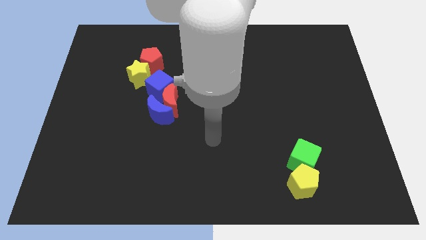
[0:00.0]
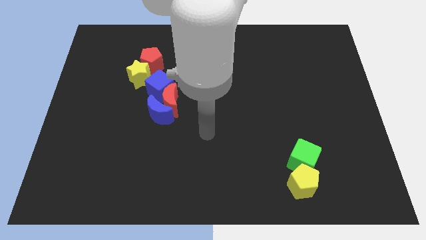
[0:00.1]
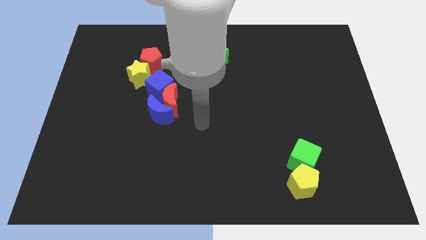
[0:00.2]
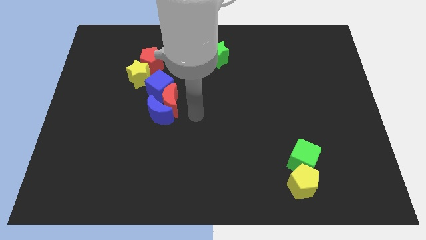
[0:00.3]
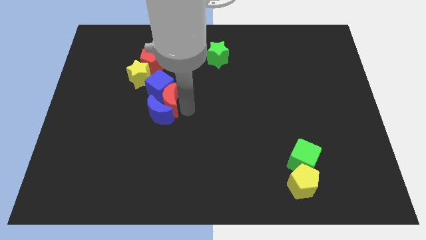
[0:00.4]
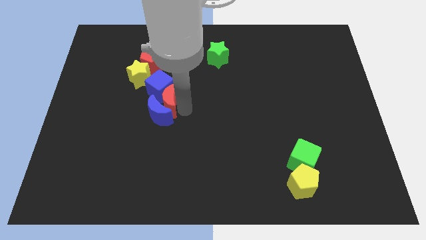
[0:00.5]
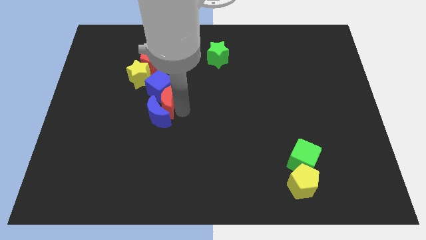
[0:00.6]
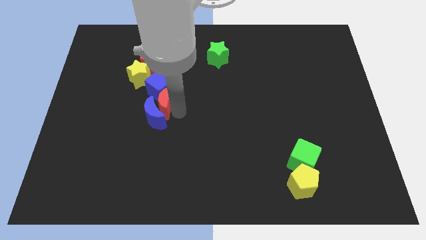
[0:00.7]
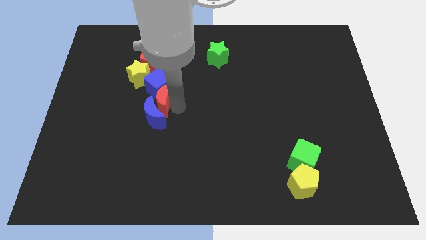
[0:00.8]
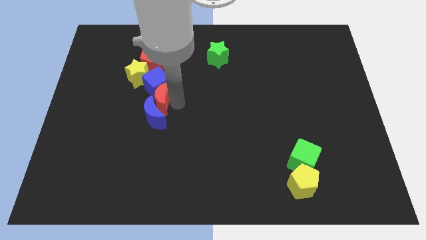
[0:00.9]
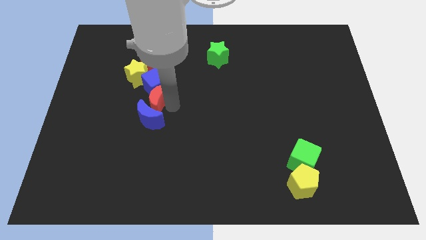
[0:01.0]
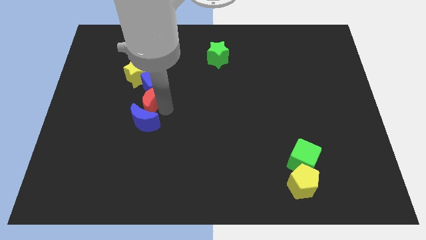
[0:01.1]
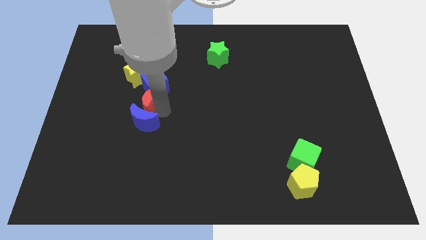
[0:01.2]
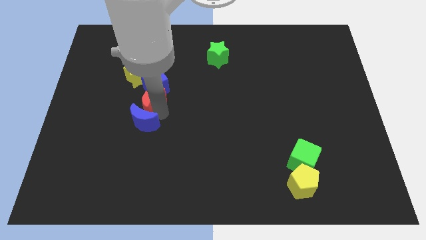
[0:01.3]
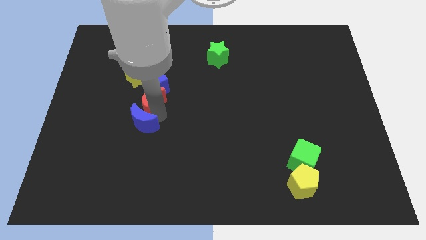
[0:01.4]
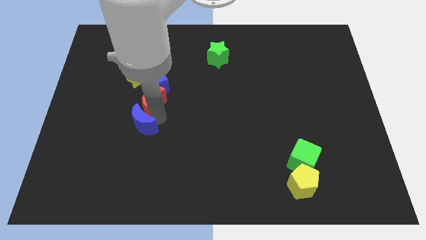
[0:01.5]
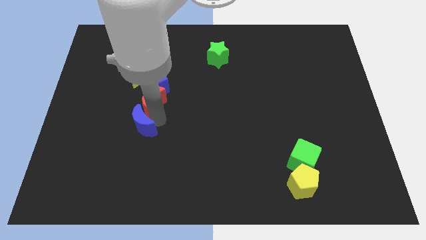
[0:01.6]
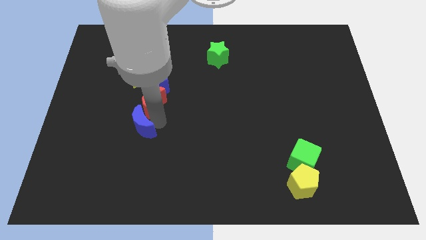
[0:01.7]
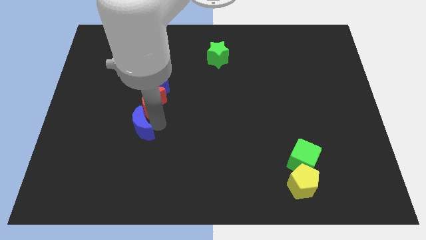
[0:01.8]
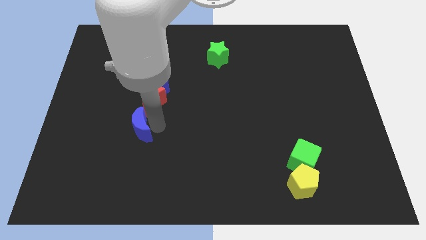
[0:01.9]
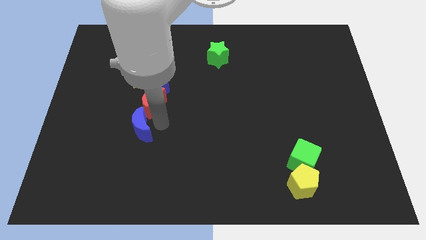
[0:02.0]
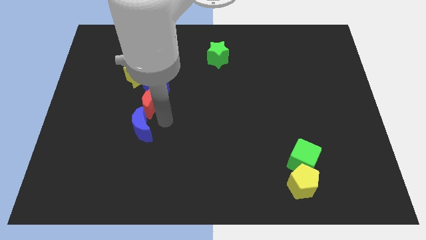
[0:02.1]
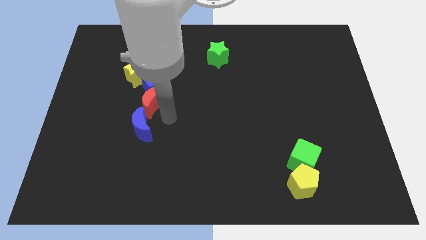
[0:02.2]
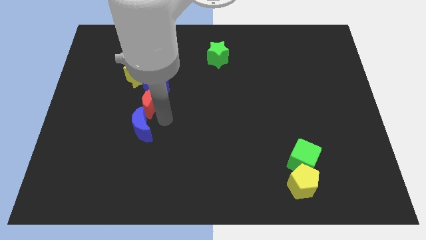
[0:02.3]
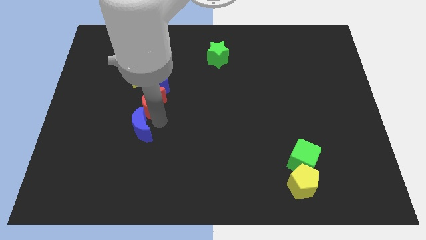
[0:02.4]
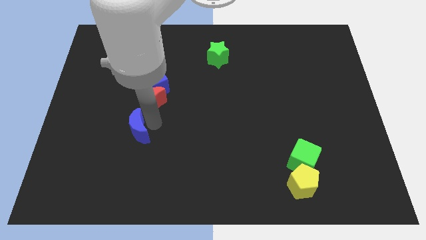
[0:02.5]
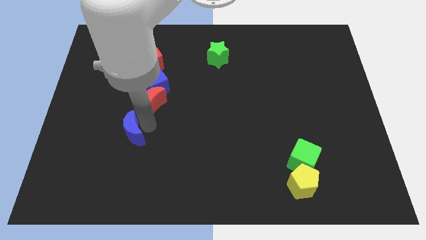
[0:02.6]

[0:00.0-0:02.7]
slide the blue moon downwards and then left slightly

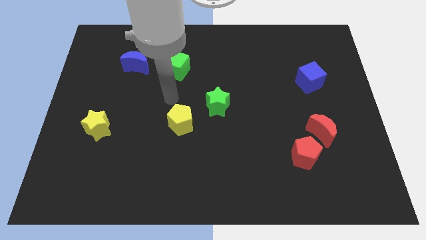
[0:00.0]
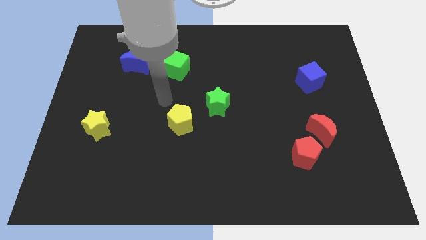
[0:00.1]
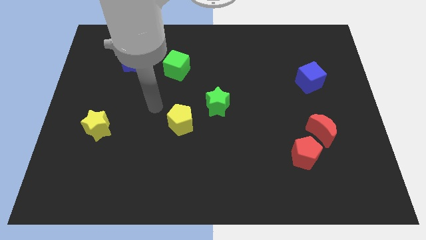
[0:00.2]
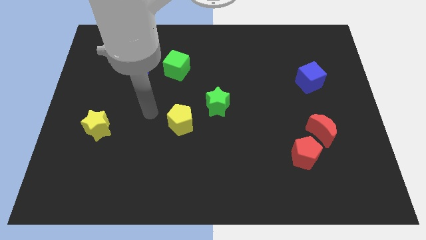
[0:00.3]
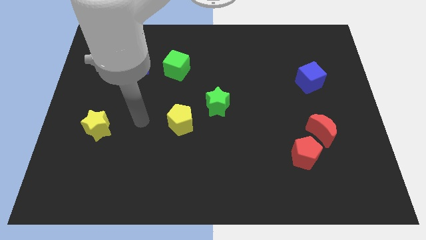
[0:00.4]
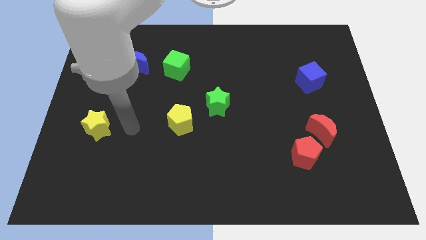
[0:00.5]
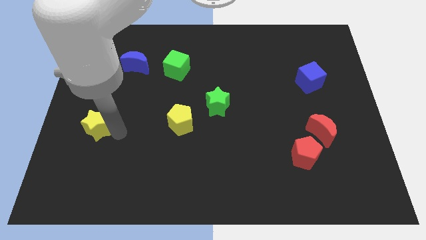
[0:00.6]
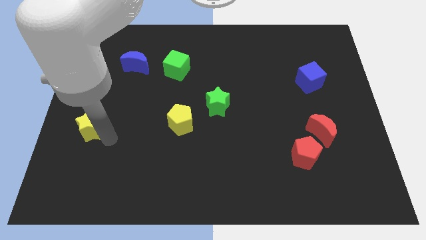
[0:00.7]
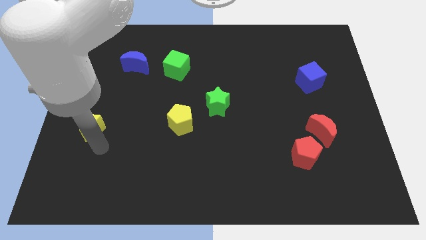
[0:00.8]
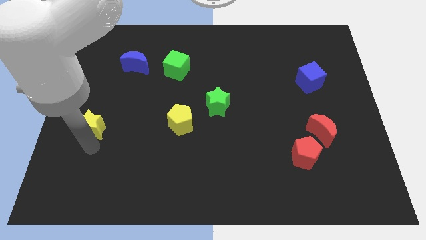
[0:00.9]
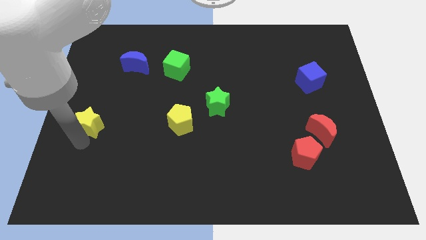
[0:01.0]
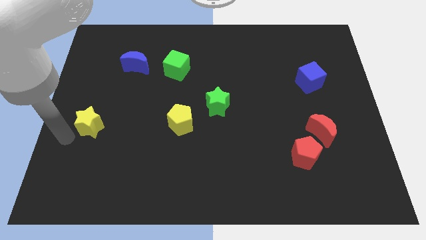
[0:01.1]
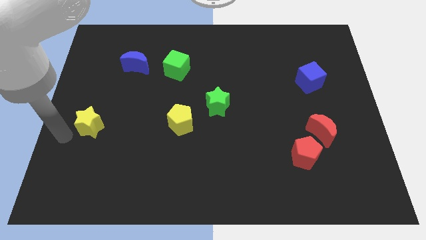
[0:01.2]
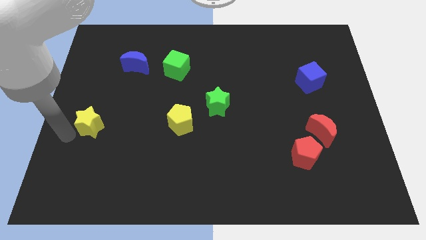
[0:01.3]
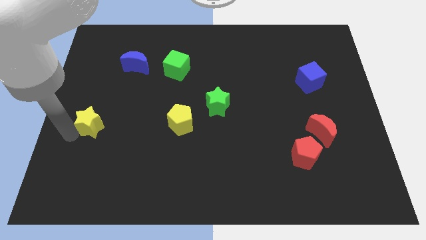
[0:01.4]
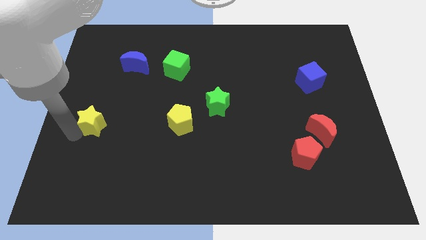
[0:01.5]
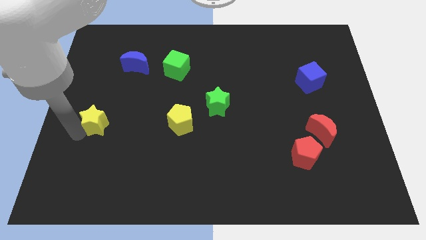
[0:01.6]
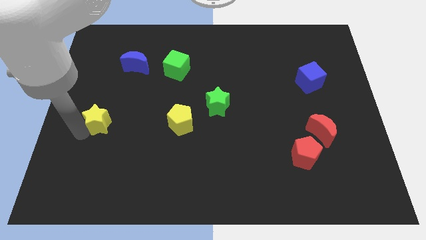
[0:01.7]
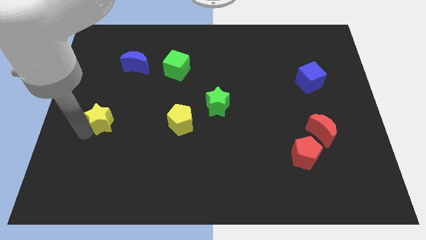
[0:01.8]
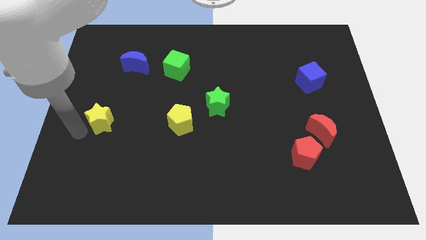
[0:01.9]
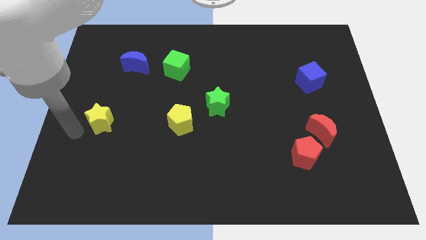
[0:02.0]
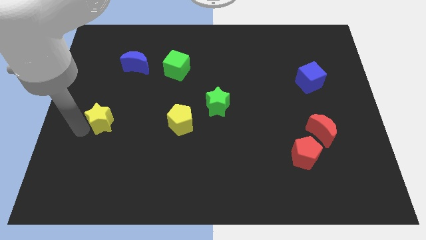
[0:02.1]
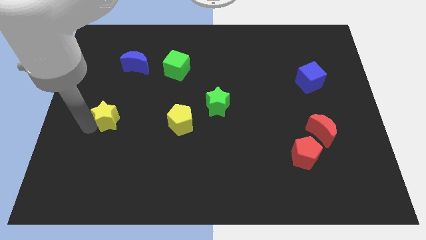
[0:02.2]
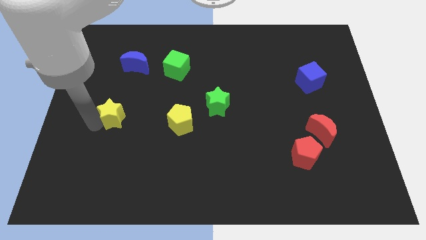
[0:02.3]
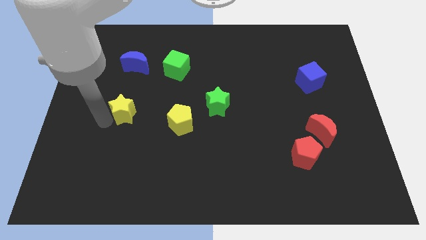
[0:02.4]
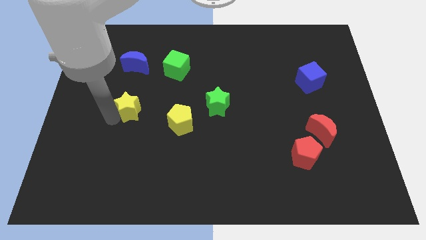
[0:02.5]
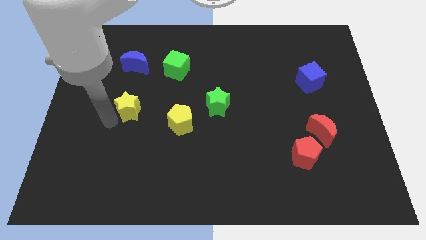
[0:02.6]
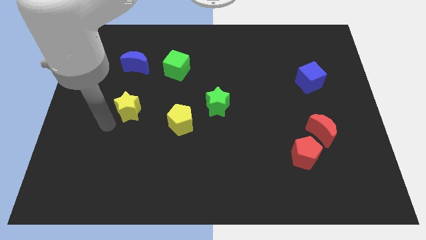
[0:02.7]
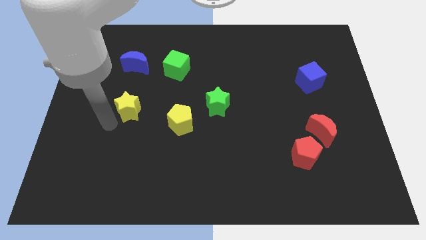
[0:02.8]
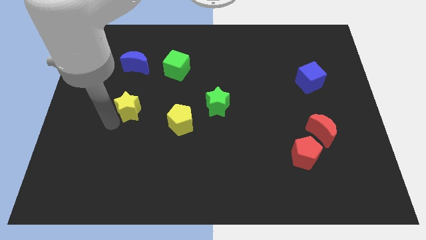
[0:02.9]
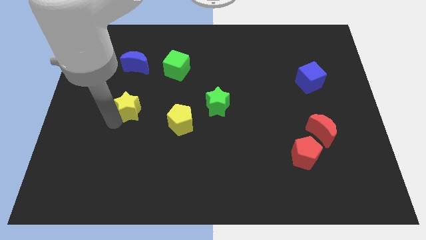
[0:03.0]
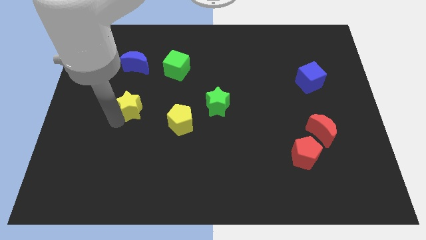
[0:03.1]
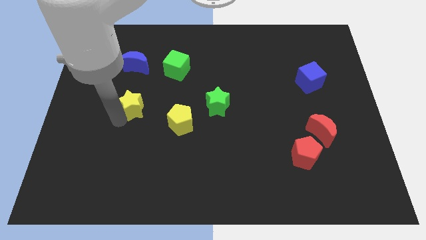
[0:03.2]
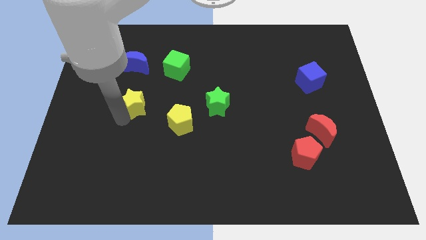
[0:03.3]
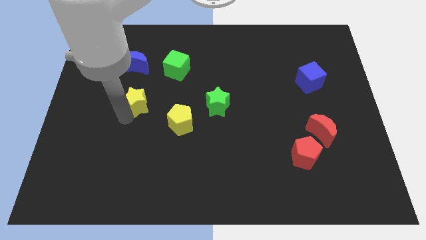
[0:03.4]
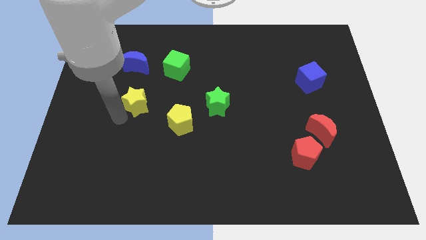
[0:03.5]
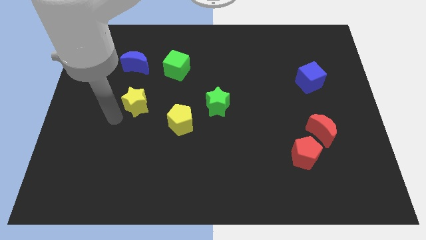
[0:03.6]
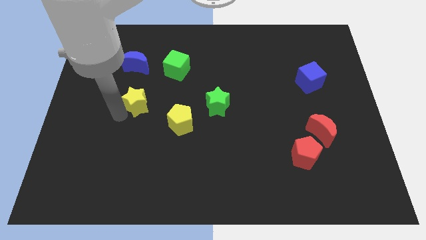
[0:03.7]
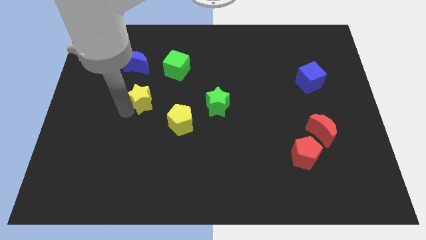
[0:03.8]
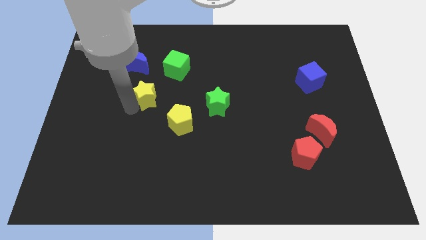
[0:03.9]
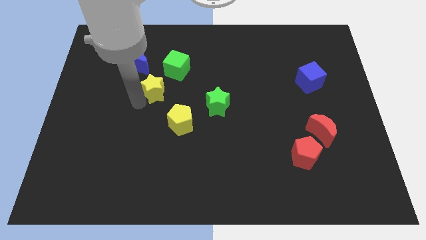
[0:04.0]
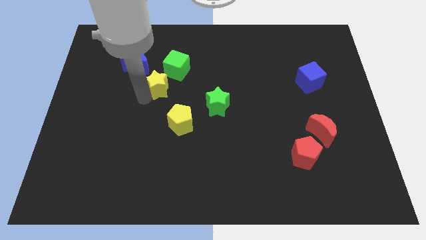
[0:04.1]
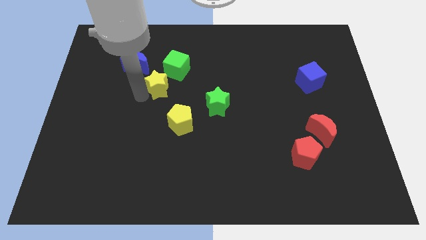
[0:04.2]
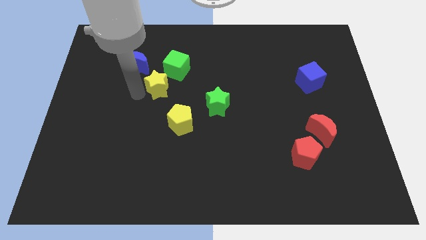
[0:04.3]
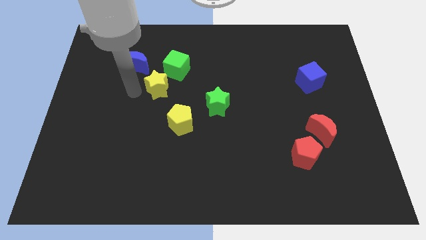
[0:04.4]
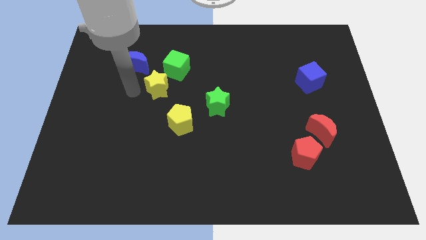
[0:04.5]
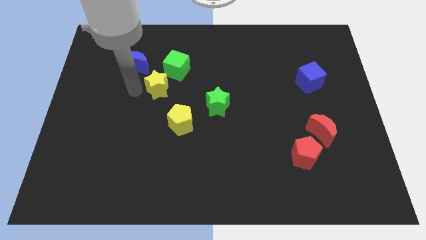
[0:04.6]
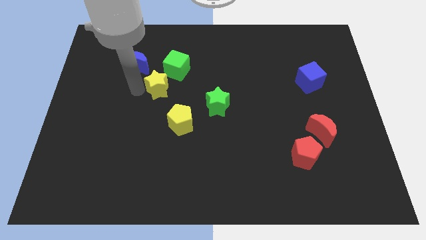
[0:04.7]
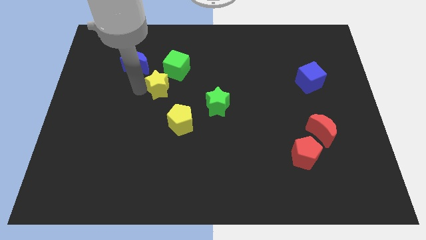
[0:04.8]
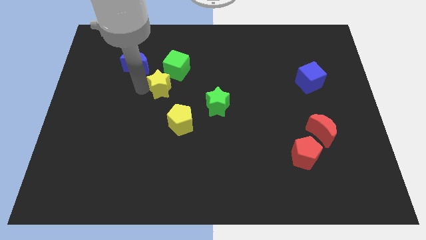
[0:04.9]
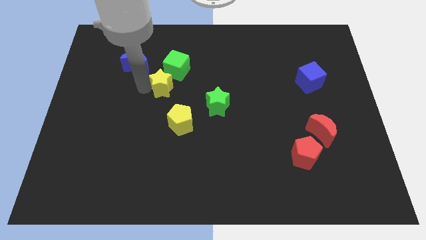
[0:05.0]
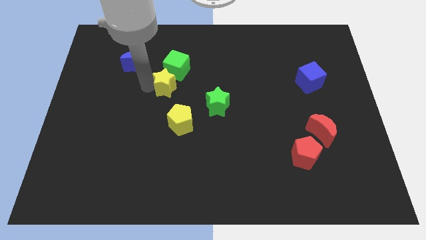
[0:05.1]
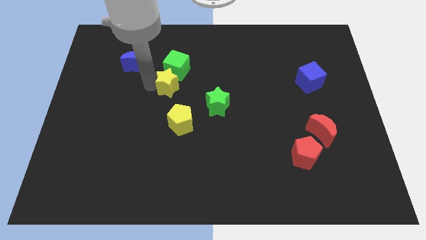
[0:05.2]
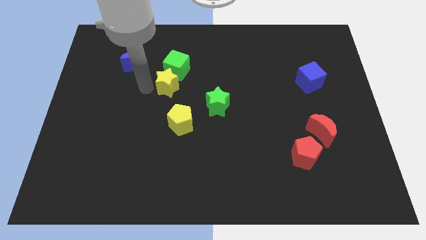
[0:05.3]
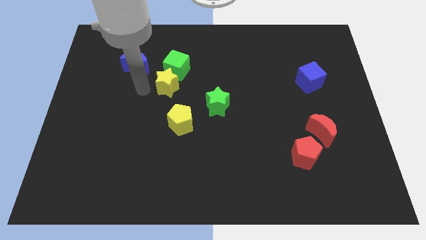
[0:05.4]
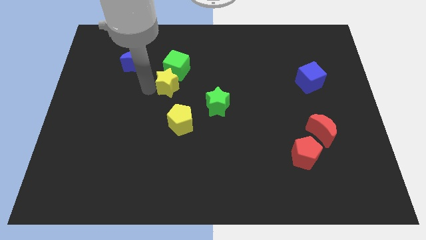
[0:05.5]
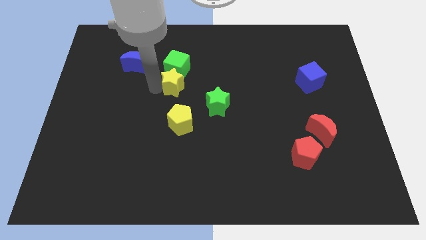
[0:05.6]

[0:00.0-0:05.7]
push the yellow star upwards and to the right diagonally
